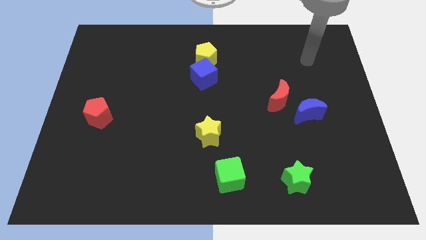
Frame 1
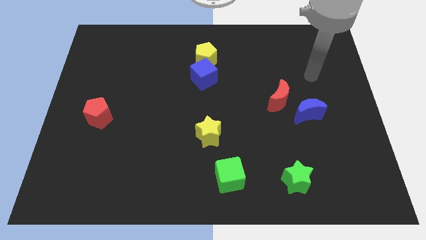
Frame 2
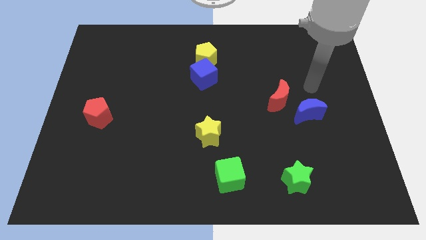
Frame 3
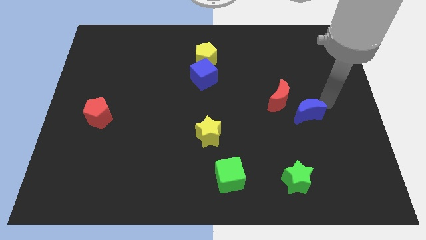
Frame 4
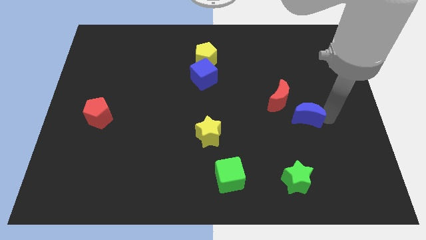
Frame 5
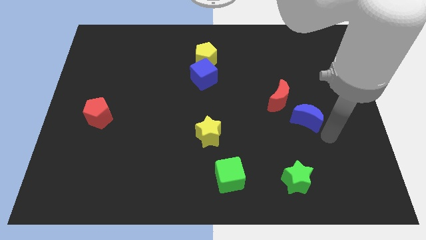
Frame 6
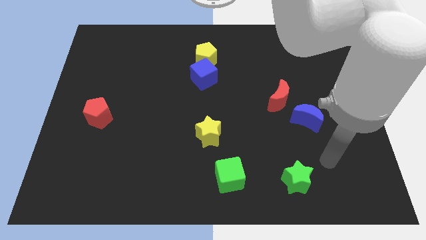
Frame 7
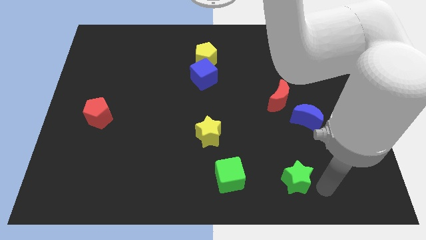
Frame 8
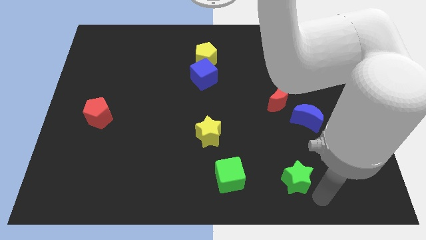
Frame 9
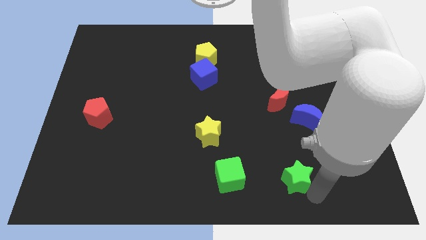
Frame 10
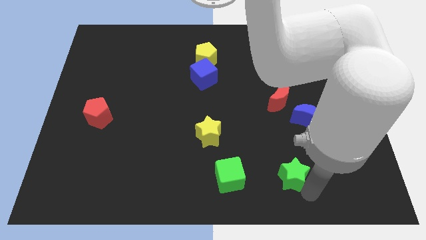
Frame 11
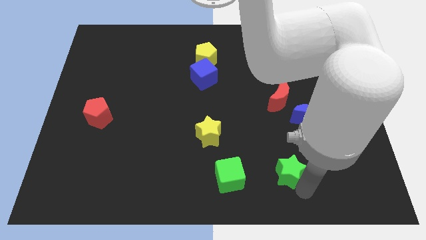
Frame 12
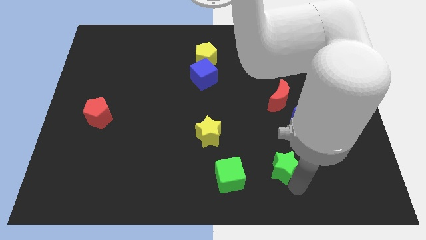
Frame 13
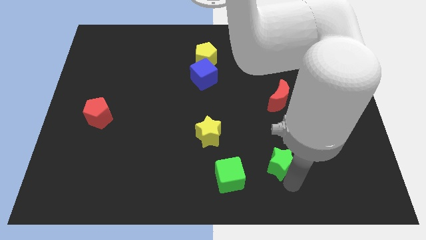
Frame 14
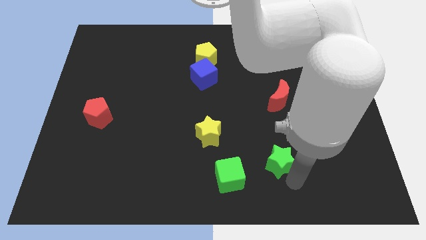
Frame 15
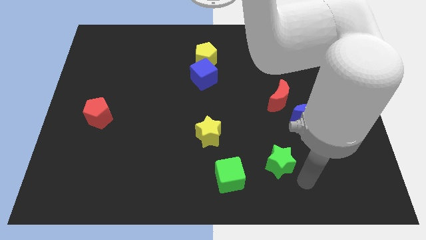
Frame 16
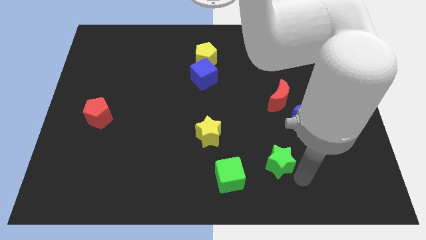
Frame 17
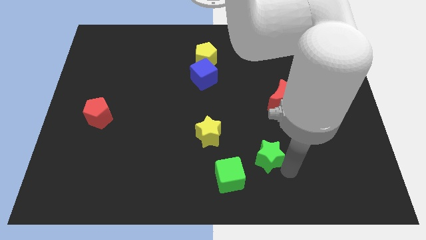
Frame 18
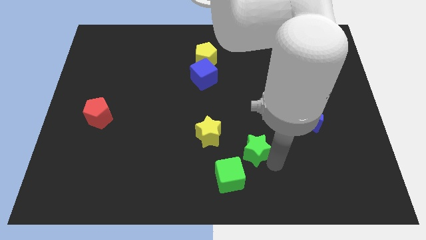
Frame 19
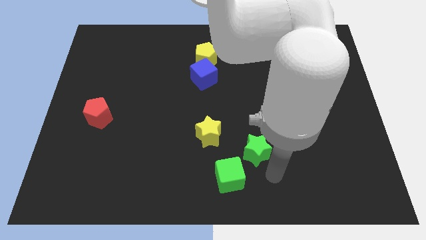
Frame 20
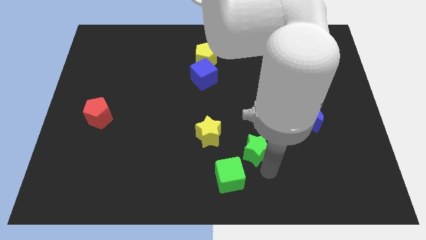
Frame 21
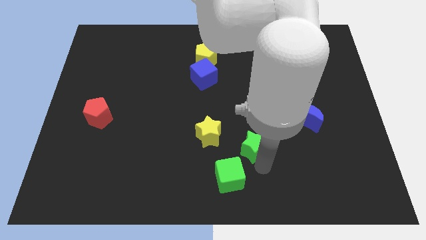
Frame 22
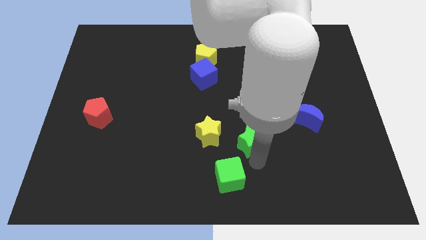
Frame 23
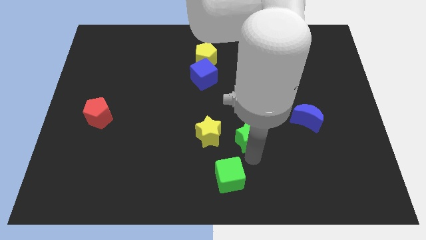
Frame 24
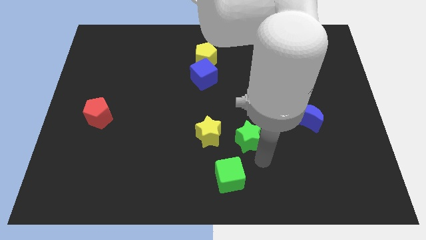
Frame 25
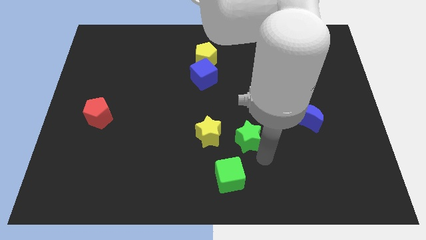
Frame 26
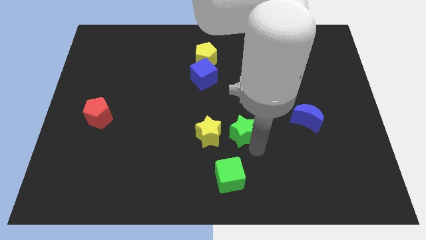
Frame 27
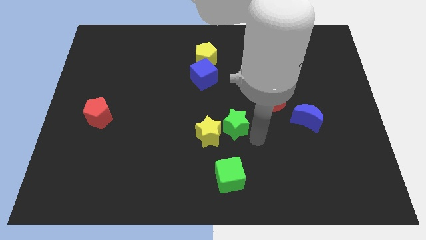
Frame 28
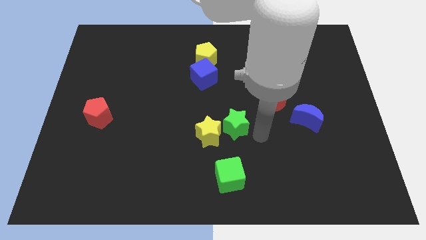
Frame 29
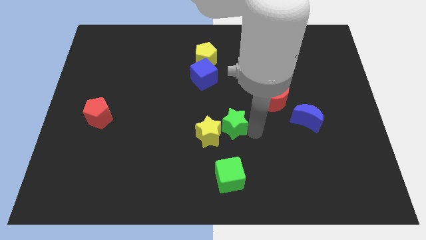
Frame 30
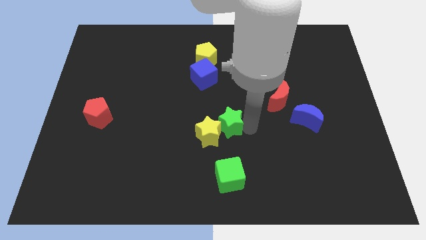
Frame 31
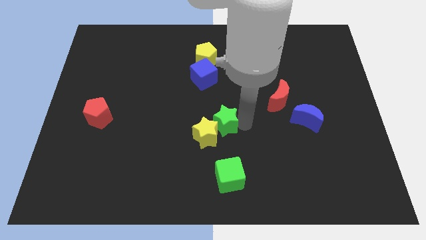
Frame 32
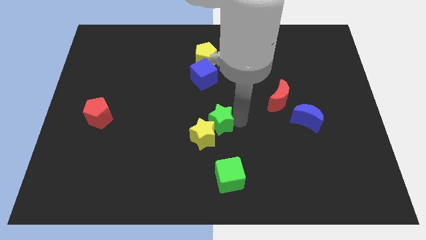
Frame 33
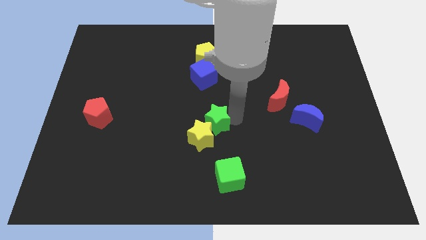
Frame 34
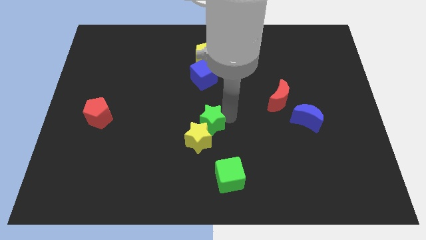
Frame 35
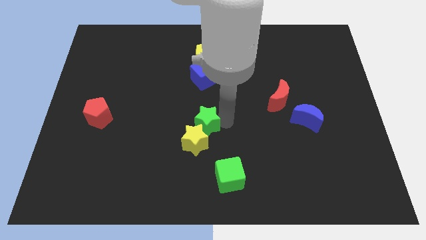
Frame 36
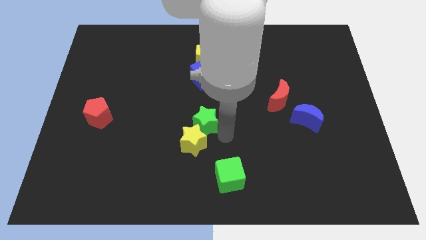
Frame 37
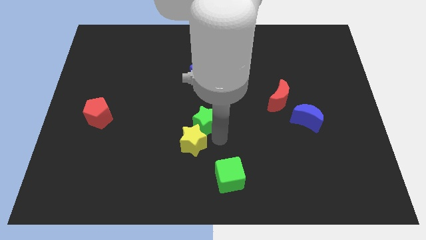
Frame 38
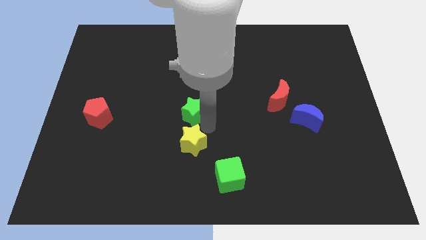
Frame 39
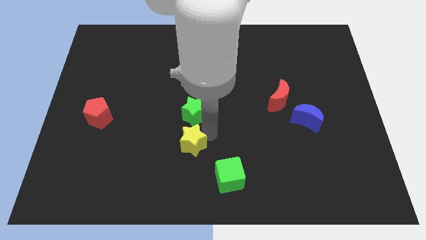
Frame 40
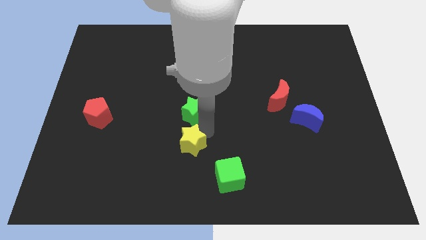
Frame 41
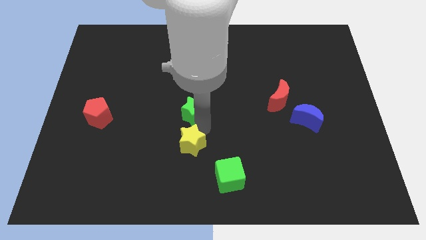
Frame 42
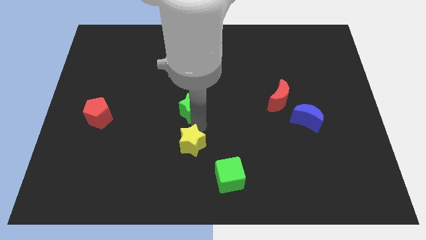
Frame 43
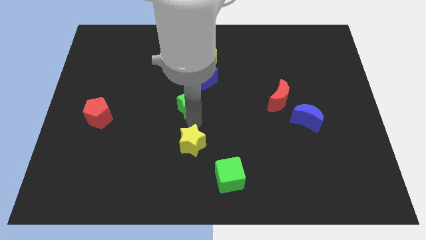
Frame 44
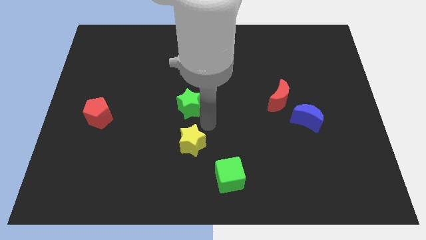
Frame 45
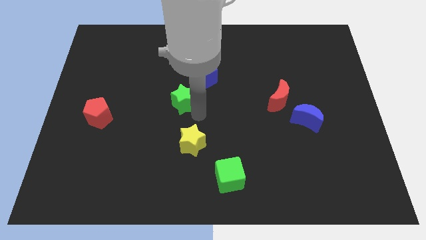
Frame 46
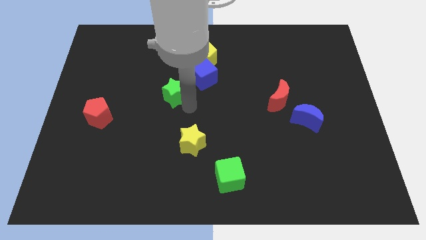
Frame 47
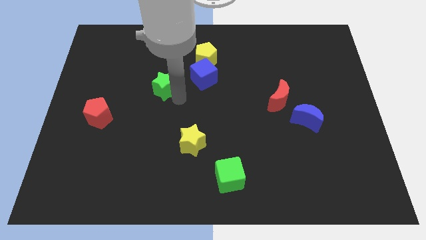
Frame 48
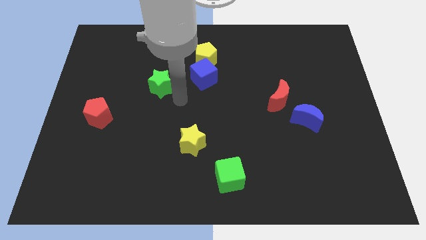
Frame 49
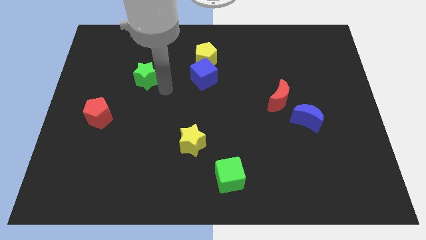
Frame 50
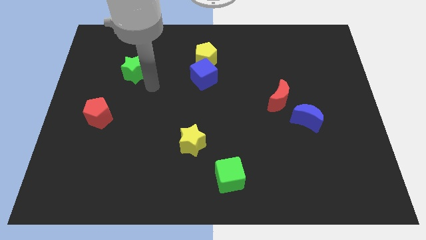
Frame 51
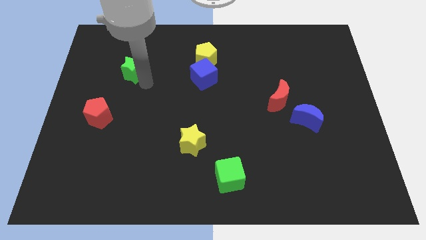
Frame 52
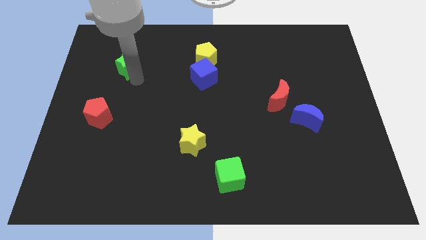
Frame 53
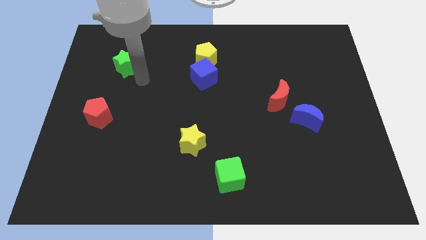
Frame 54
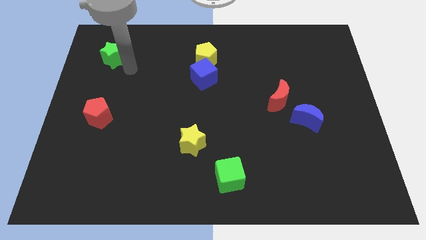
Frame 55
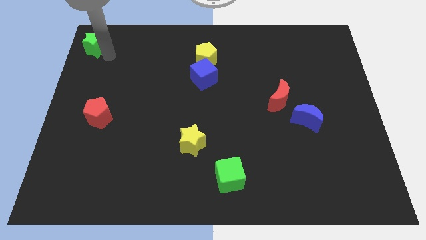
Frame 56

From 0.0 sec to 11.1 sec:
push the green star to the top left corner

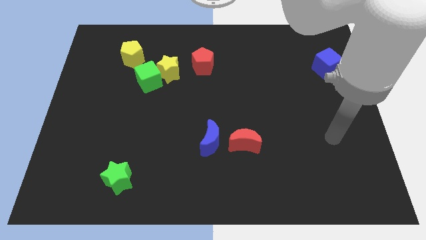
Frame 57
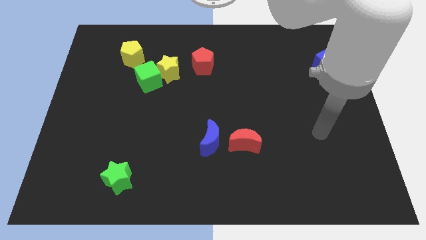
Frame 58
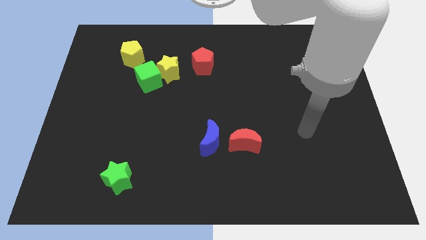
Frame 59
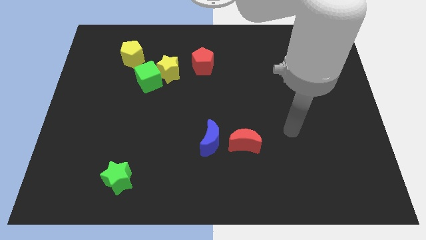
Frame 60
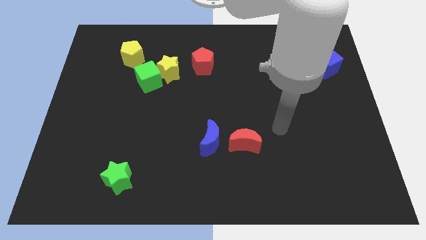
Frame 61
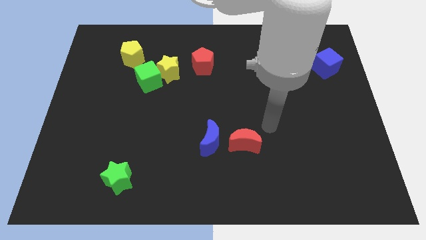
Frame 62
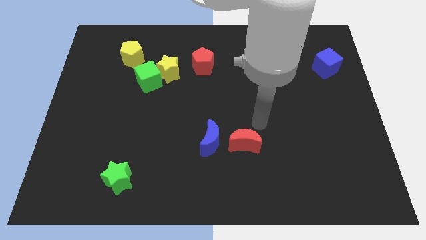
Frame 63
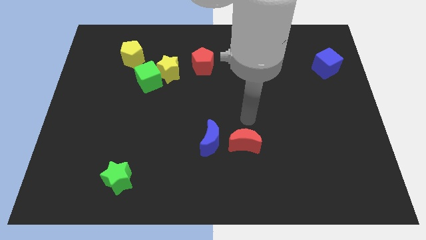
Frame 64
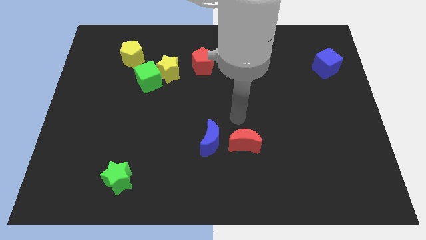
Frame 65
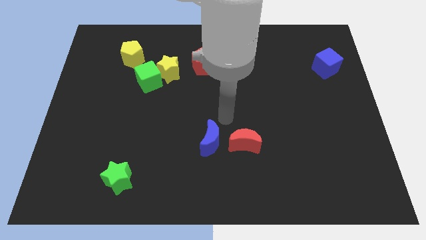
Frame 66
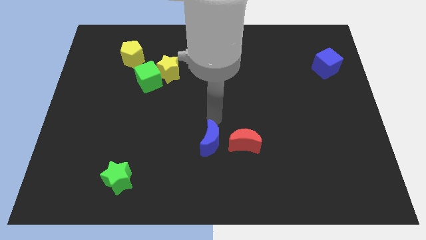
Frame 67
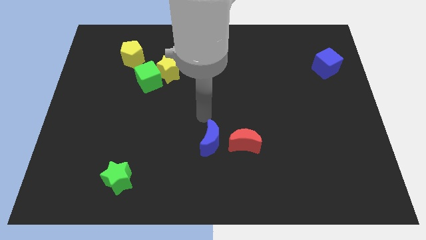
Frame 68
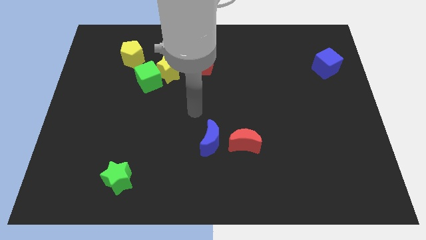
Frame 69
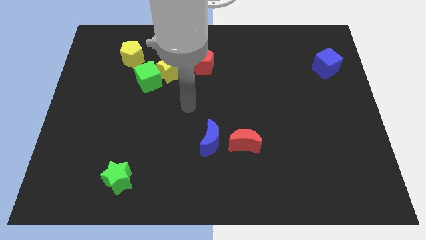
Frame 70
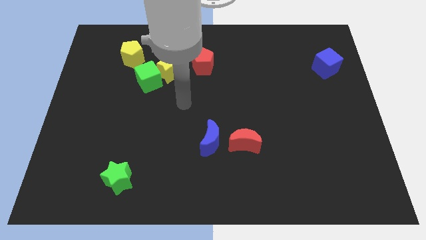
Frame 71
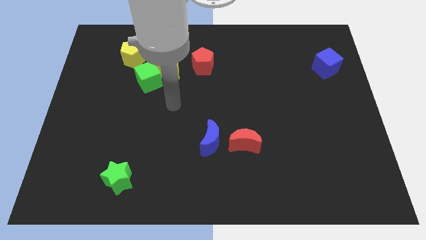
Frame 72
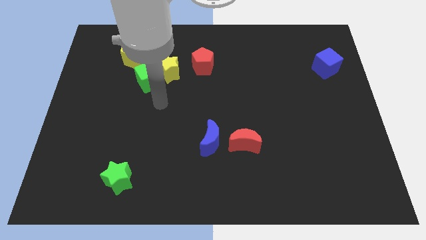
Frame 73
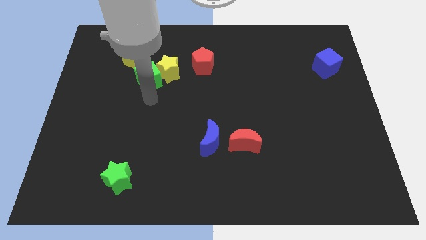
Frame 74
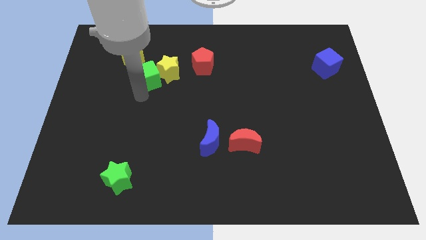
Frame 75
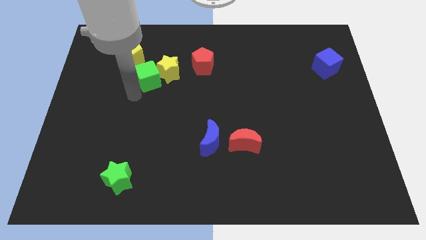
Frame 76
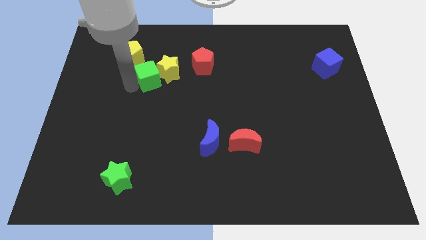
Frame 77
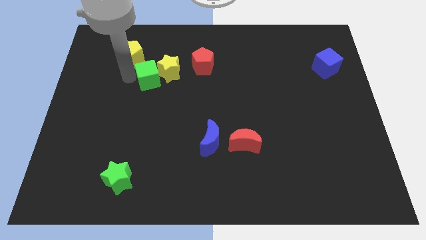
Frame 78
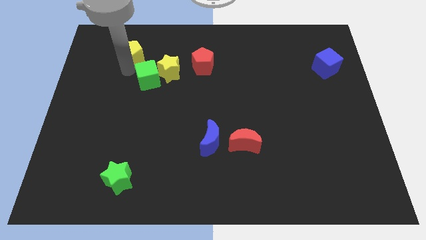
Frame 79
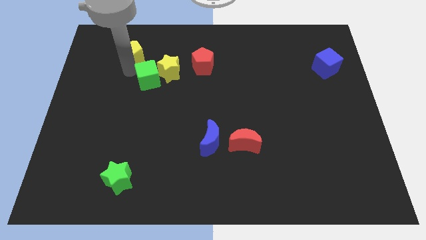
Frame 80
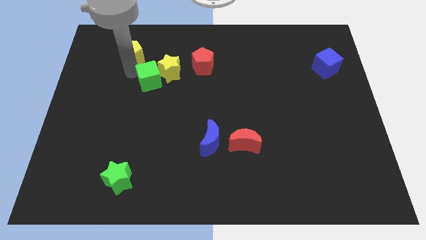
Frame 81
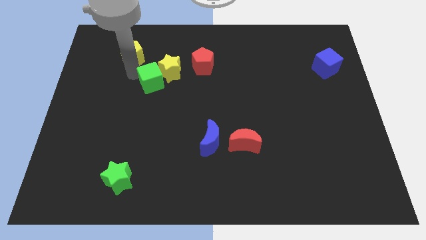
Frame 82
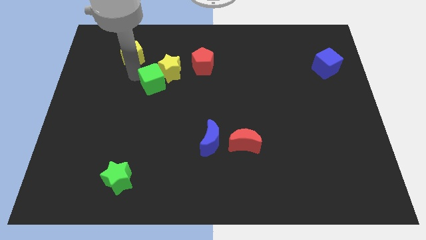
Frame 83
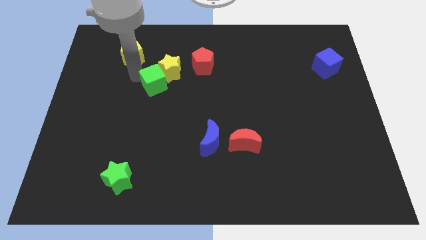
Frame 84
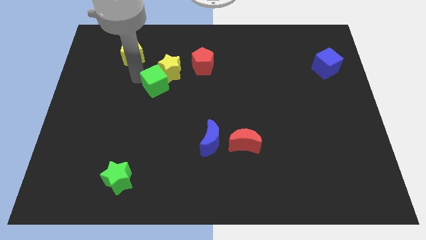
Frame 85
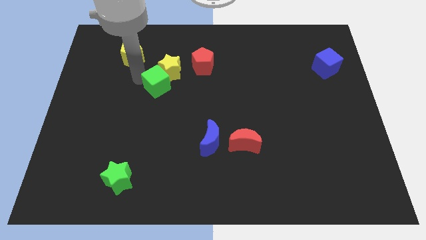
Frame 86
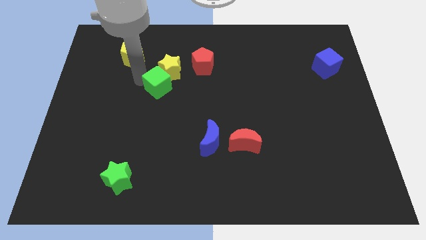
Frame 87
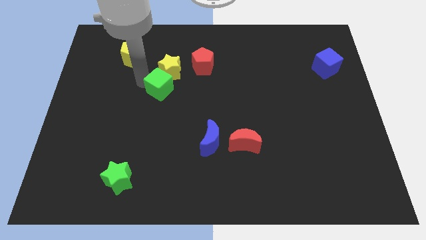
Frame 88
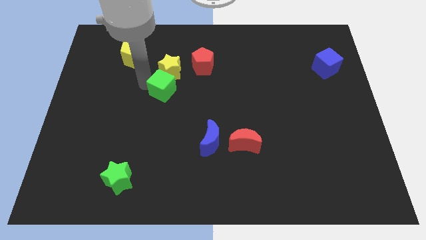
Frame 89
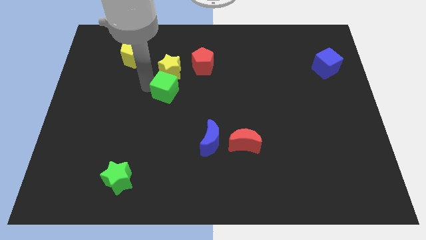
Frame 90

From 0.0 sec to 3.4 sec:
move the green cube to the center of the board
